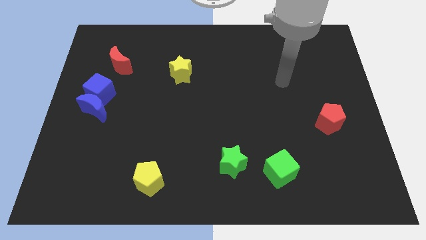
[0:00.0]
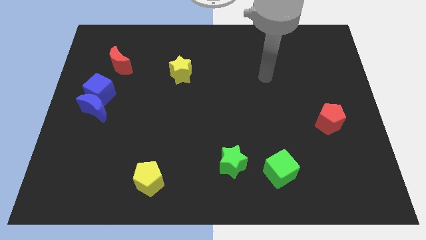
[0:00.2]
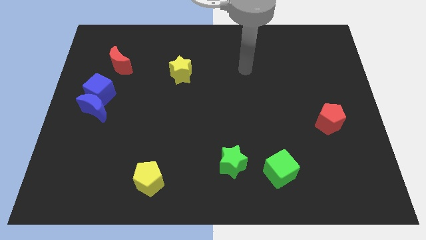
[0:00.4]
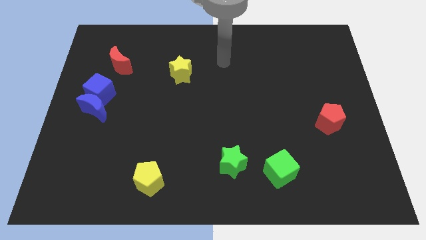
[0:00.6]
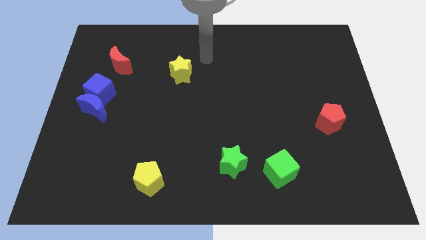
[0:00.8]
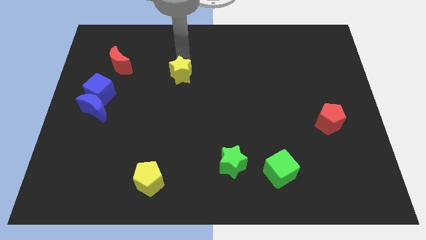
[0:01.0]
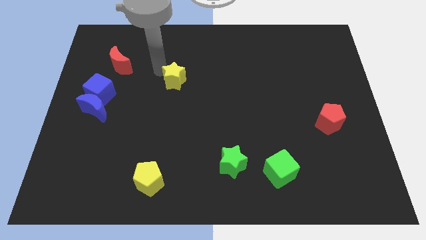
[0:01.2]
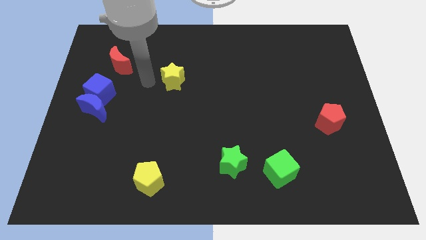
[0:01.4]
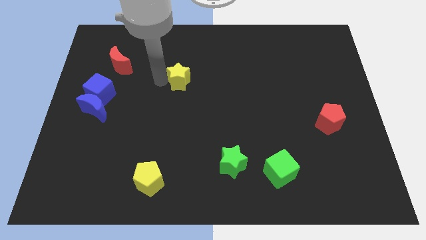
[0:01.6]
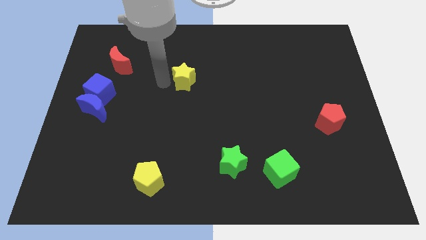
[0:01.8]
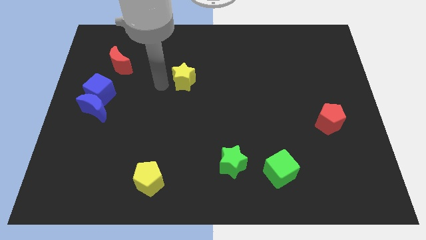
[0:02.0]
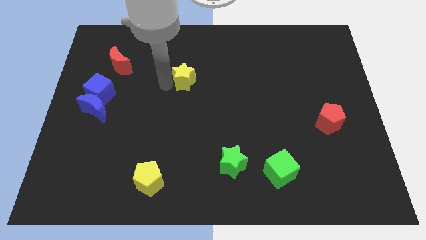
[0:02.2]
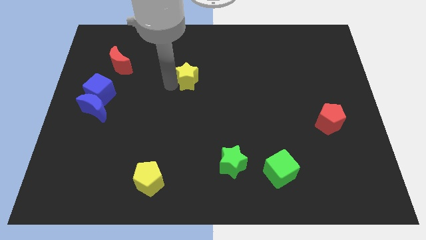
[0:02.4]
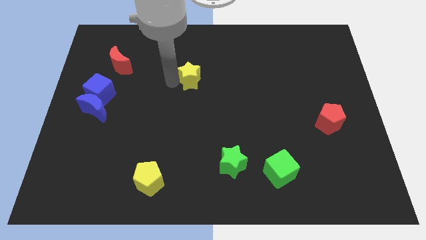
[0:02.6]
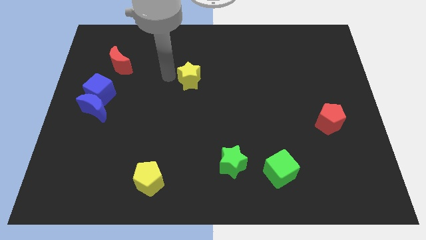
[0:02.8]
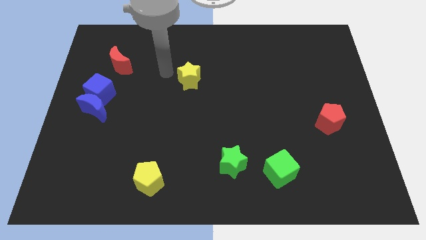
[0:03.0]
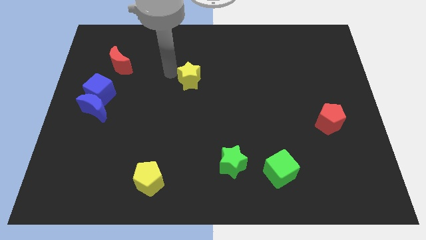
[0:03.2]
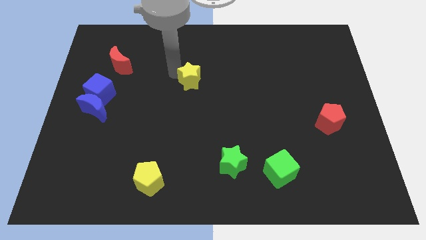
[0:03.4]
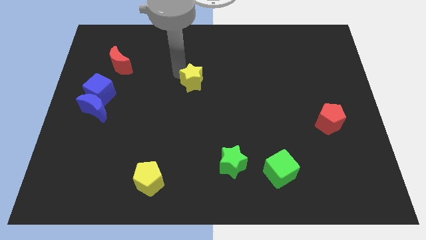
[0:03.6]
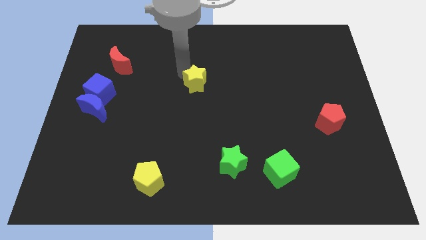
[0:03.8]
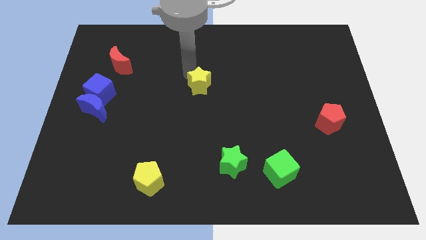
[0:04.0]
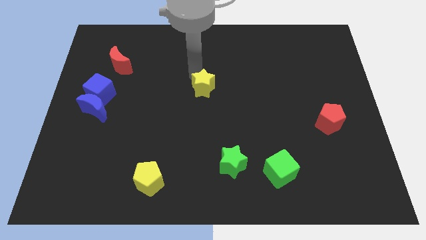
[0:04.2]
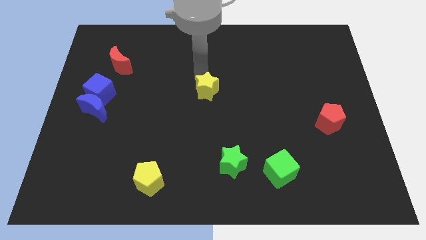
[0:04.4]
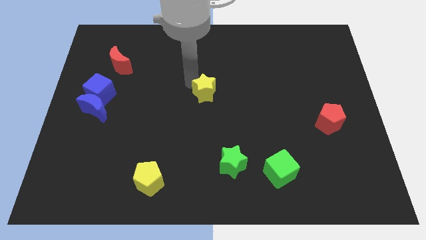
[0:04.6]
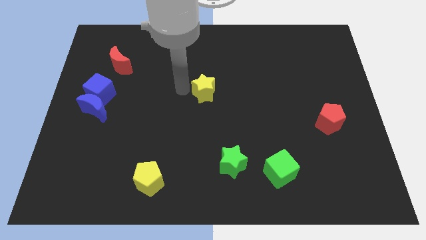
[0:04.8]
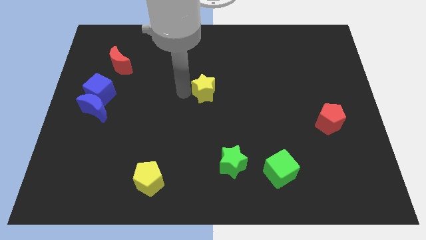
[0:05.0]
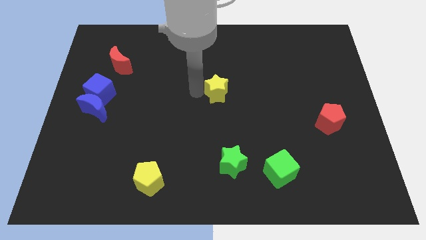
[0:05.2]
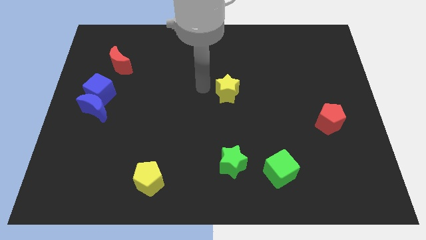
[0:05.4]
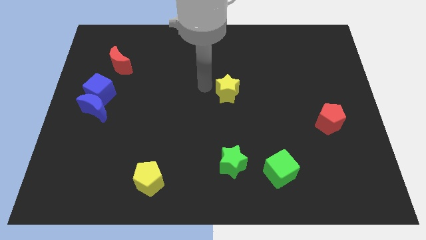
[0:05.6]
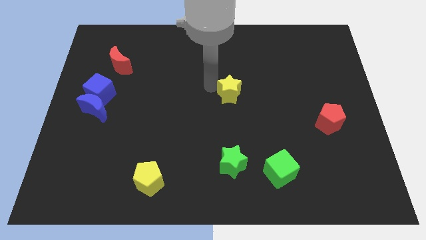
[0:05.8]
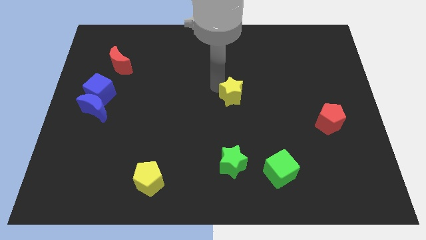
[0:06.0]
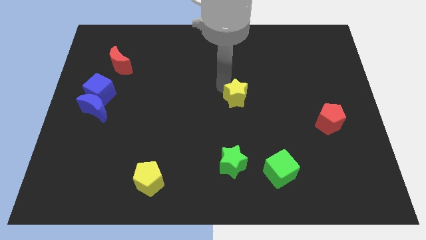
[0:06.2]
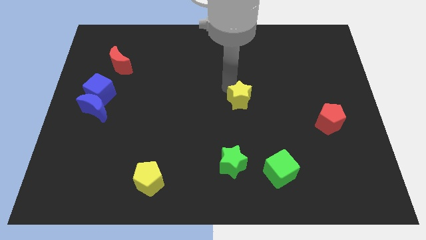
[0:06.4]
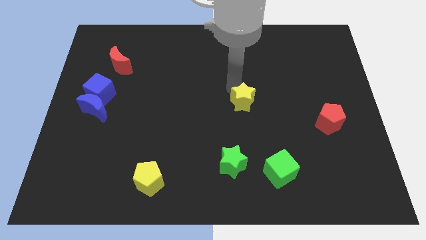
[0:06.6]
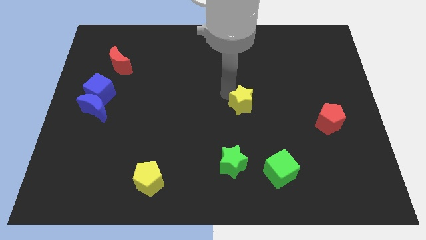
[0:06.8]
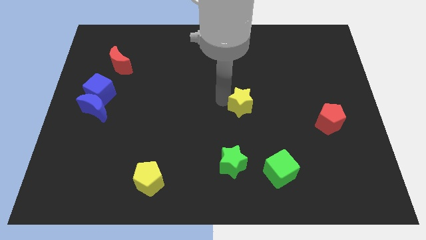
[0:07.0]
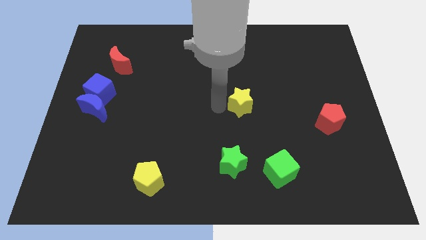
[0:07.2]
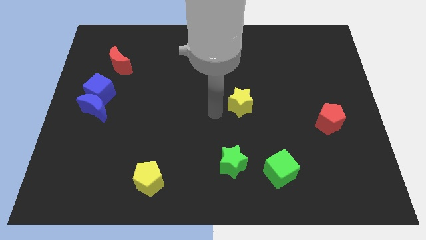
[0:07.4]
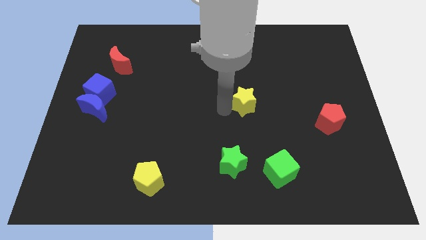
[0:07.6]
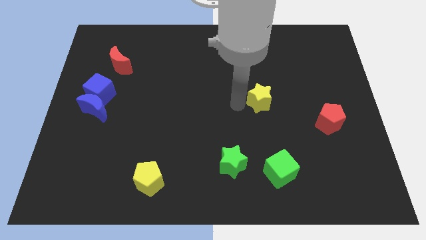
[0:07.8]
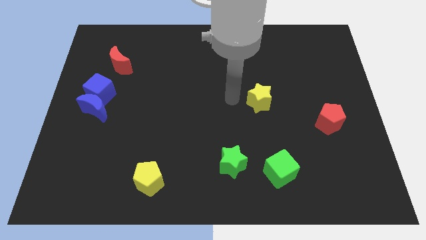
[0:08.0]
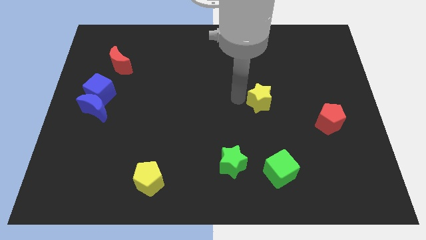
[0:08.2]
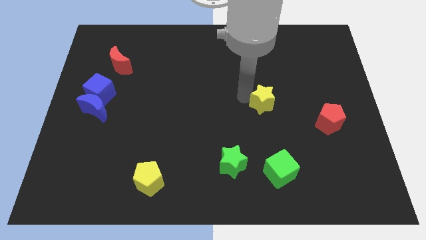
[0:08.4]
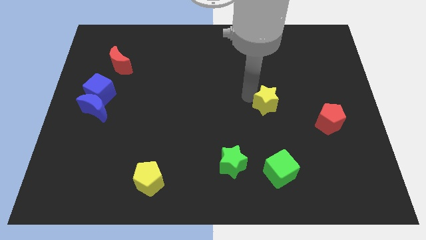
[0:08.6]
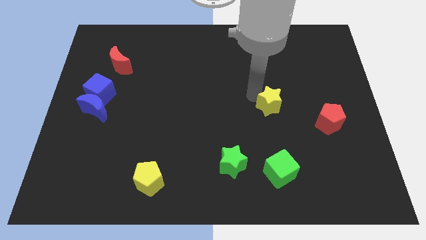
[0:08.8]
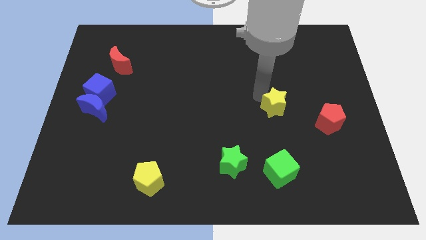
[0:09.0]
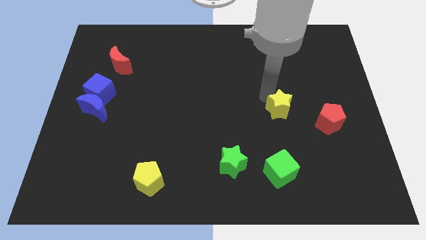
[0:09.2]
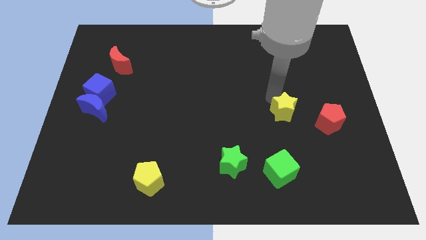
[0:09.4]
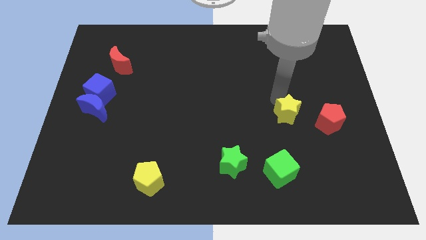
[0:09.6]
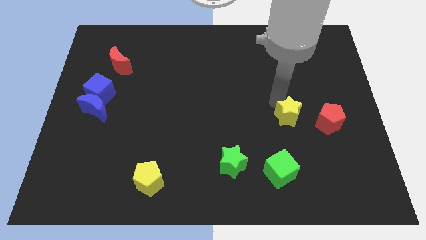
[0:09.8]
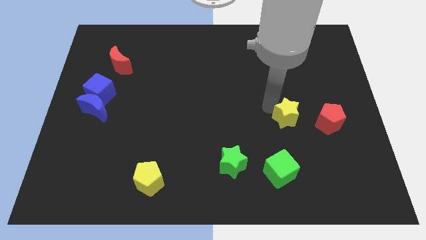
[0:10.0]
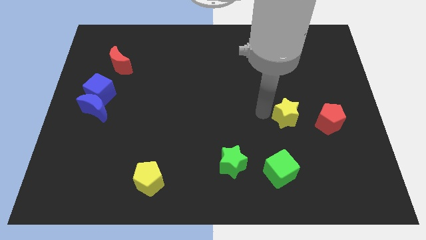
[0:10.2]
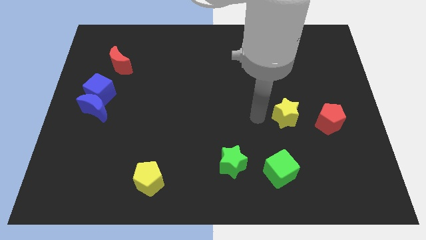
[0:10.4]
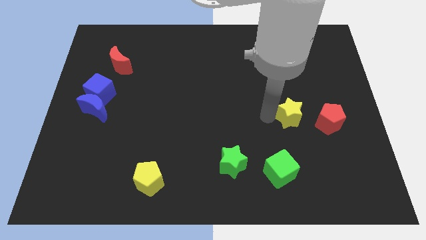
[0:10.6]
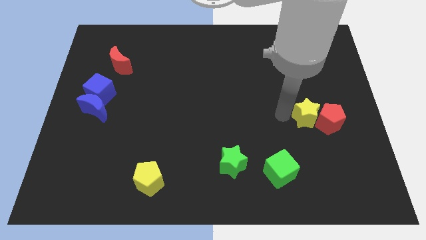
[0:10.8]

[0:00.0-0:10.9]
push the yellow star to the red pentagon

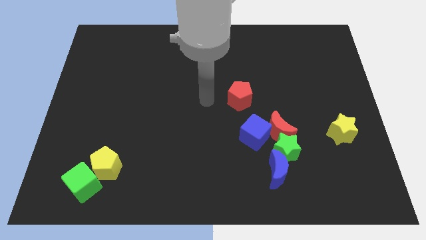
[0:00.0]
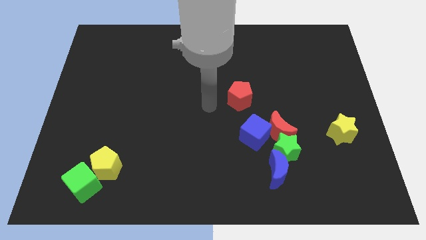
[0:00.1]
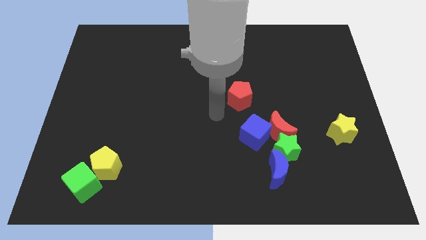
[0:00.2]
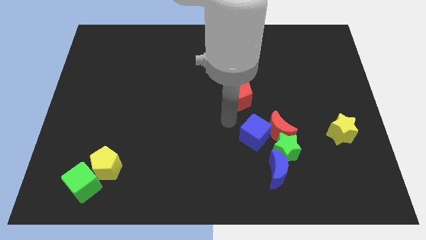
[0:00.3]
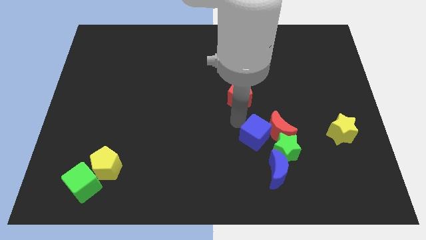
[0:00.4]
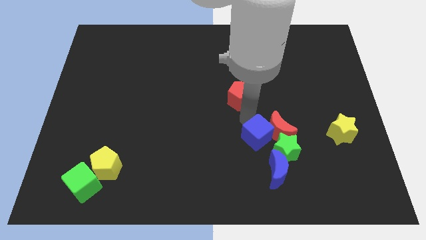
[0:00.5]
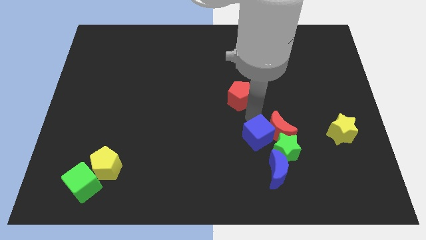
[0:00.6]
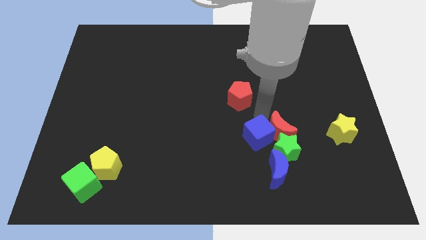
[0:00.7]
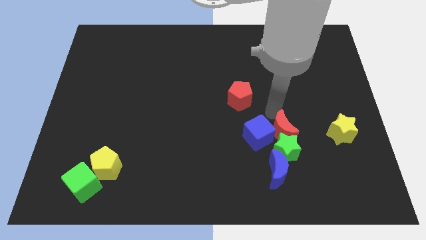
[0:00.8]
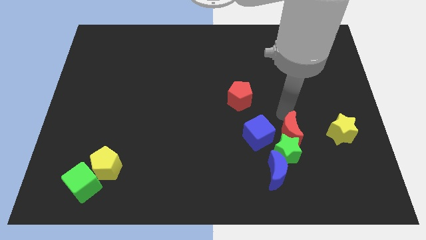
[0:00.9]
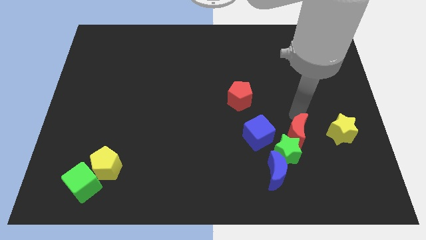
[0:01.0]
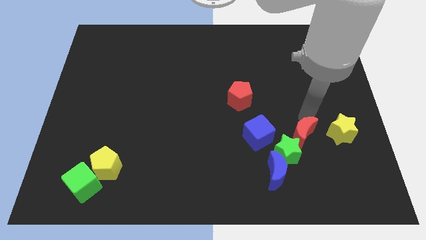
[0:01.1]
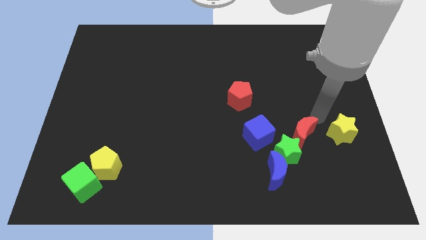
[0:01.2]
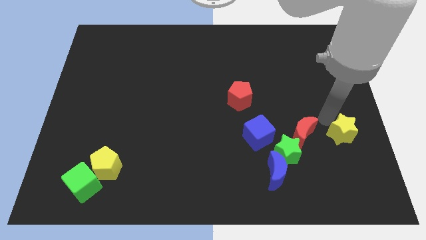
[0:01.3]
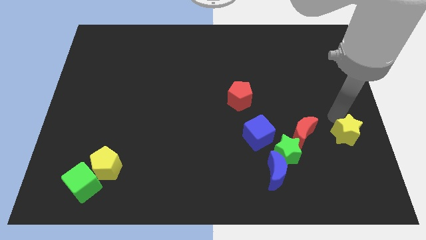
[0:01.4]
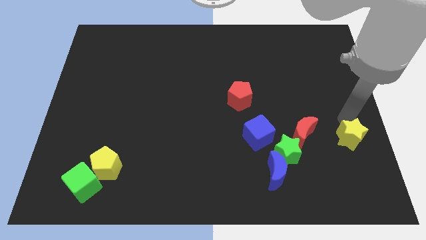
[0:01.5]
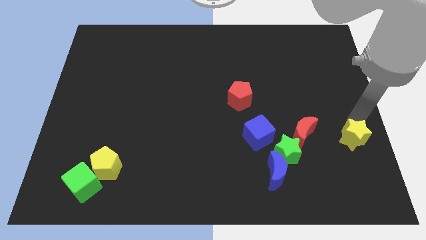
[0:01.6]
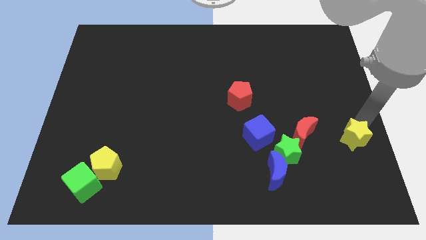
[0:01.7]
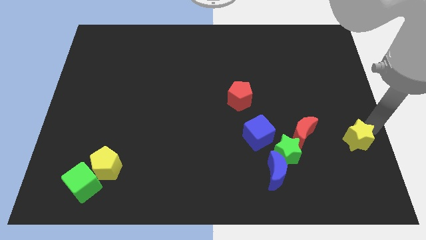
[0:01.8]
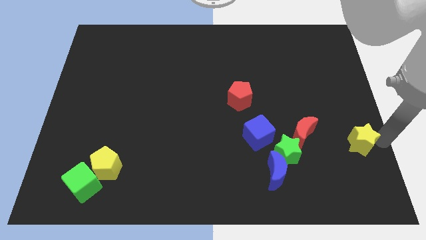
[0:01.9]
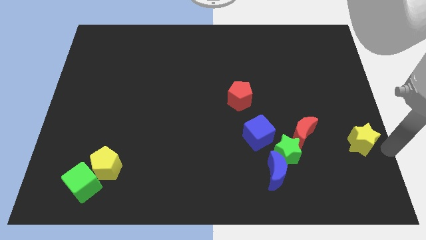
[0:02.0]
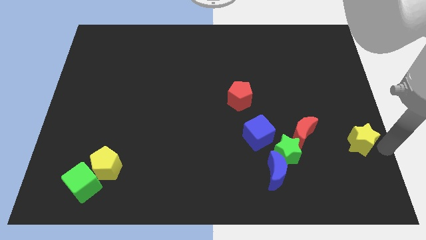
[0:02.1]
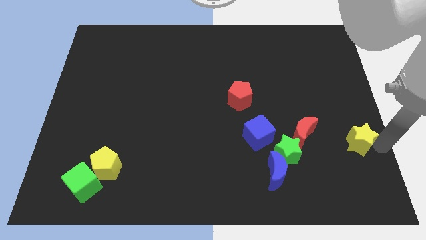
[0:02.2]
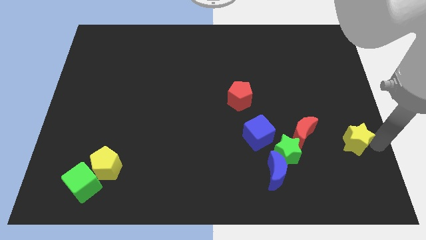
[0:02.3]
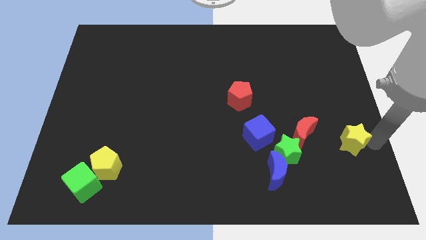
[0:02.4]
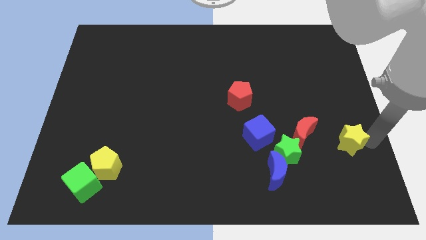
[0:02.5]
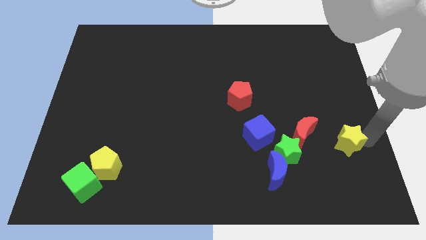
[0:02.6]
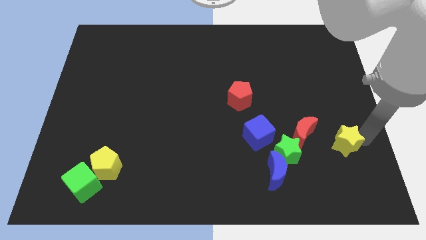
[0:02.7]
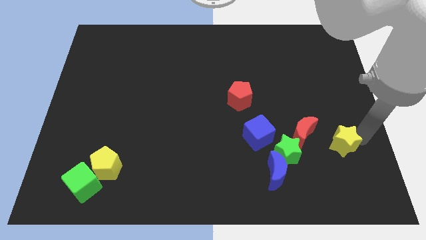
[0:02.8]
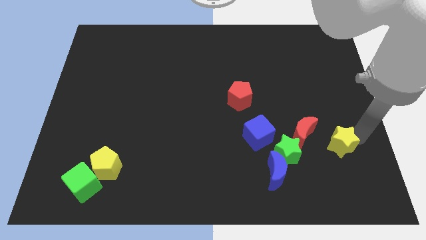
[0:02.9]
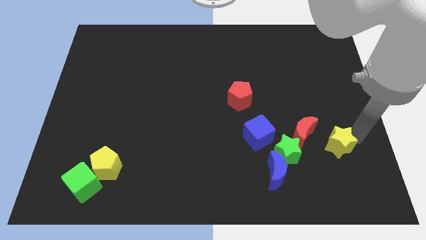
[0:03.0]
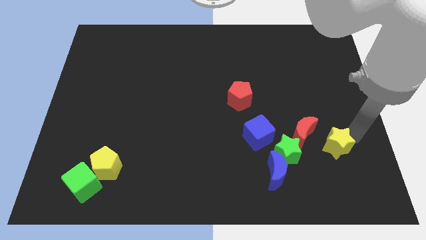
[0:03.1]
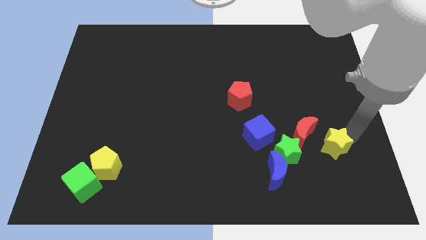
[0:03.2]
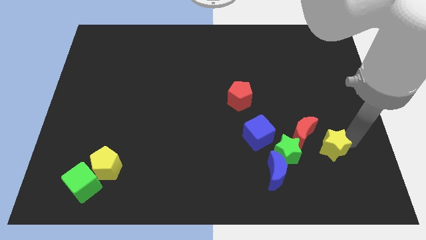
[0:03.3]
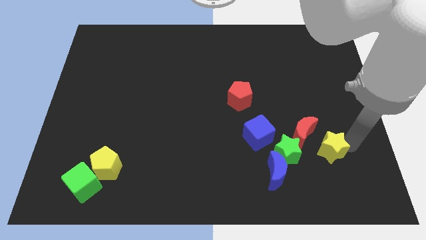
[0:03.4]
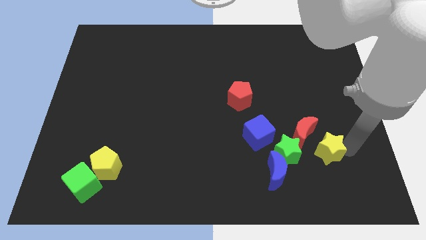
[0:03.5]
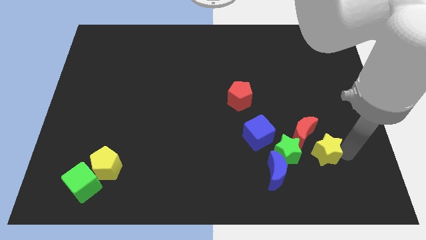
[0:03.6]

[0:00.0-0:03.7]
move the yellow star close to the red moon
